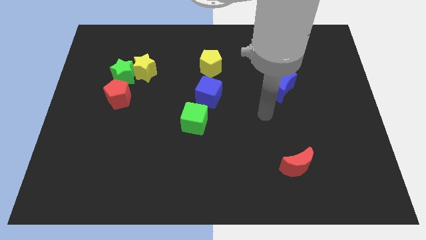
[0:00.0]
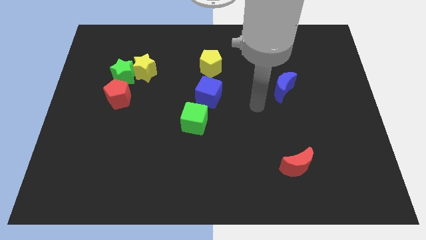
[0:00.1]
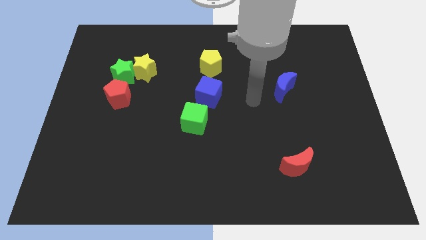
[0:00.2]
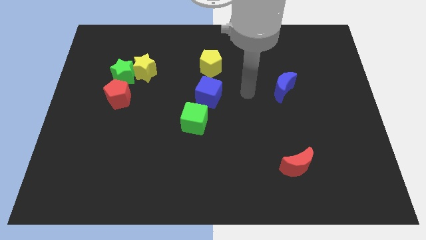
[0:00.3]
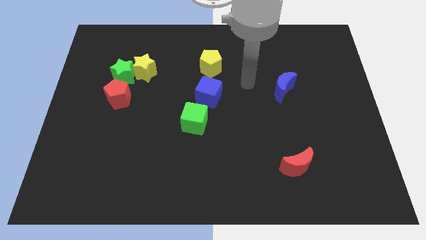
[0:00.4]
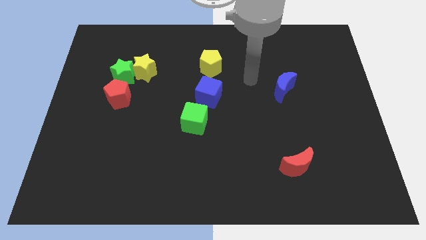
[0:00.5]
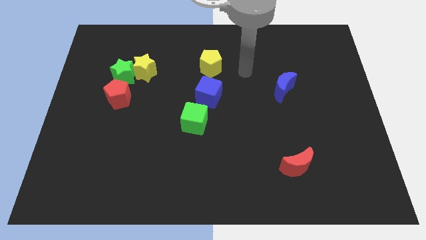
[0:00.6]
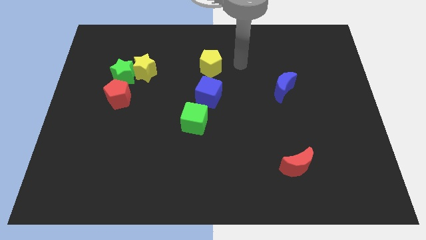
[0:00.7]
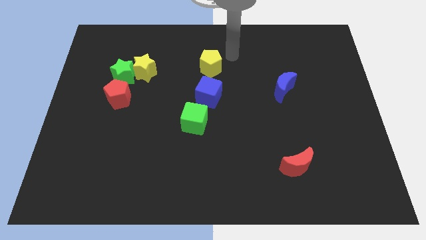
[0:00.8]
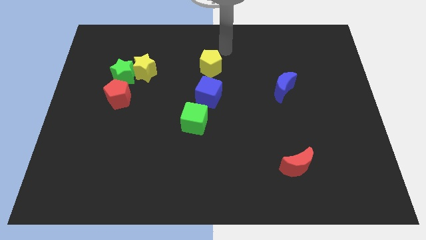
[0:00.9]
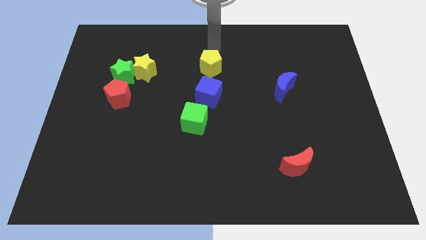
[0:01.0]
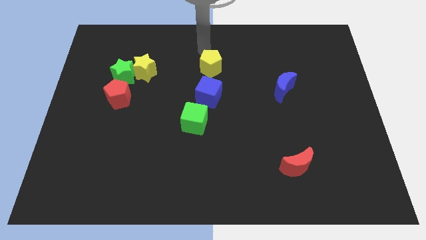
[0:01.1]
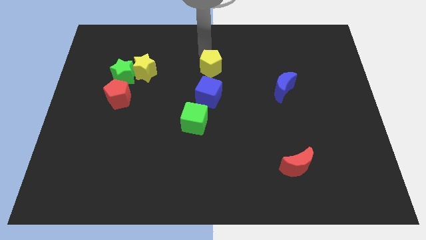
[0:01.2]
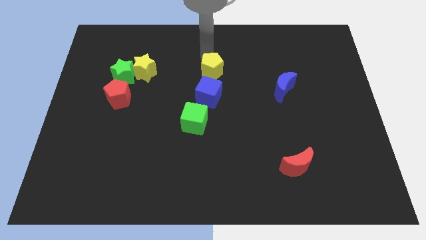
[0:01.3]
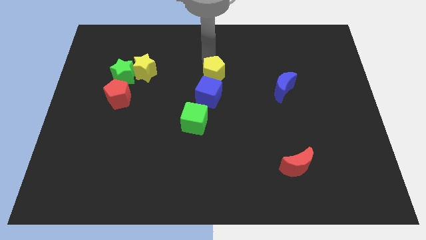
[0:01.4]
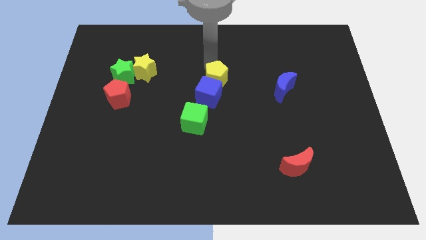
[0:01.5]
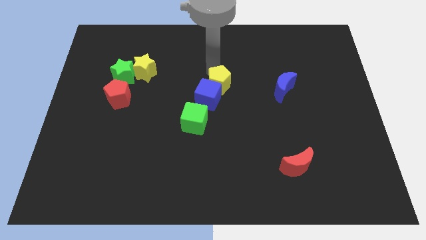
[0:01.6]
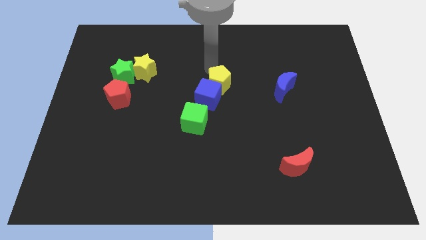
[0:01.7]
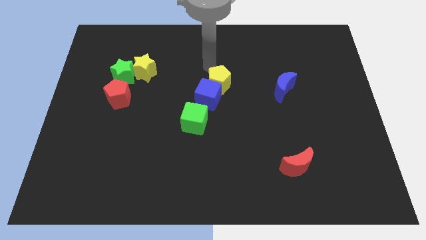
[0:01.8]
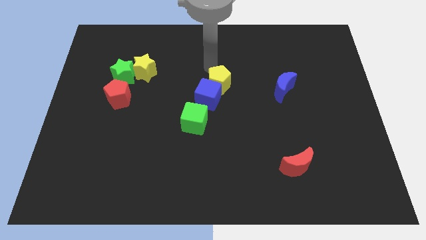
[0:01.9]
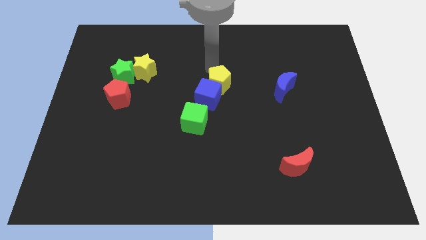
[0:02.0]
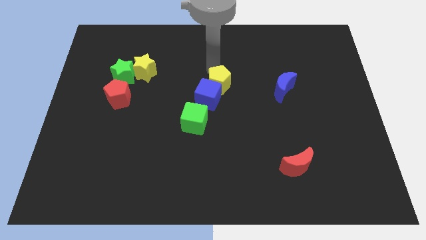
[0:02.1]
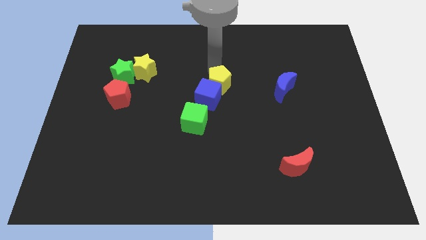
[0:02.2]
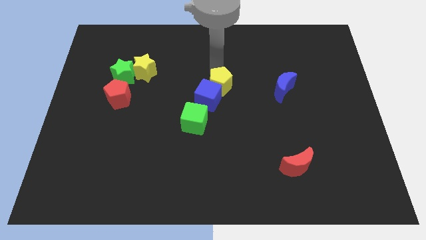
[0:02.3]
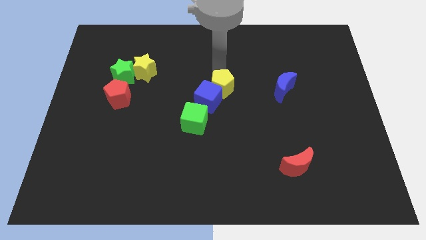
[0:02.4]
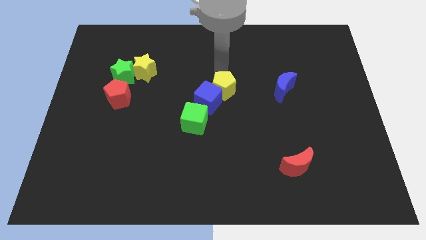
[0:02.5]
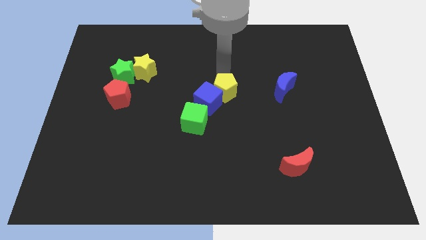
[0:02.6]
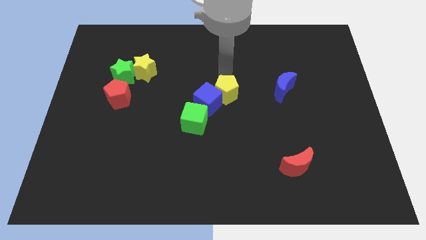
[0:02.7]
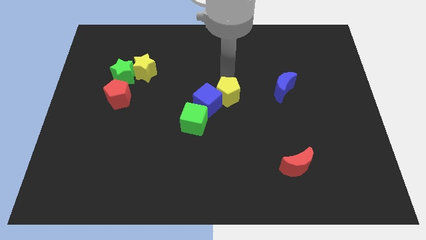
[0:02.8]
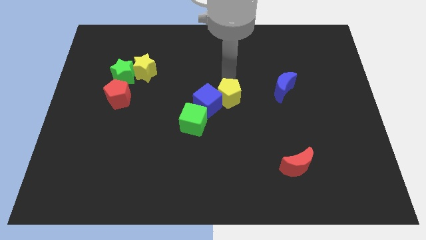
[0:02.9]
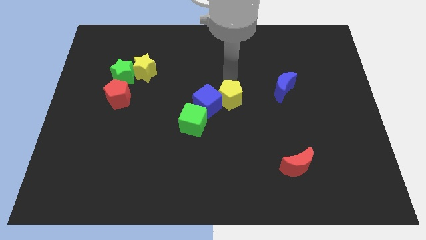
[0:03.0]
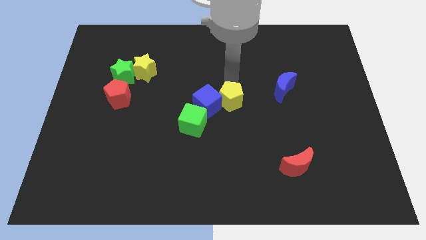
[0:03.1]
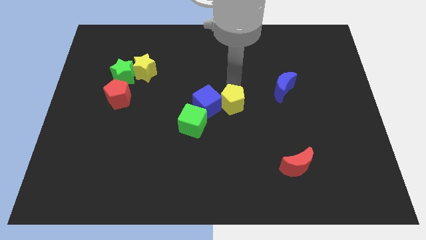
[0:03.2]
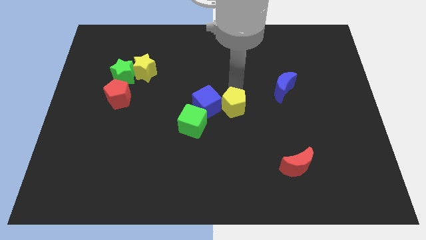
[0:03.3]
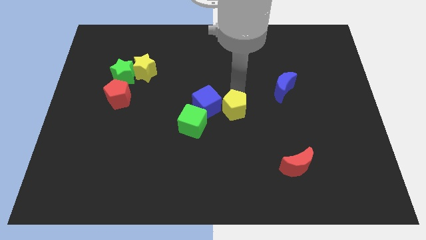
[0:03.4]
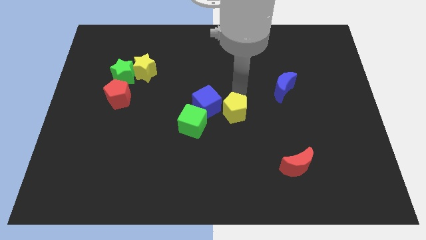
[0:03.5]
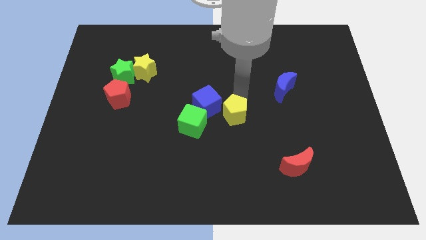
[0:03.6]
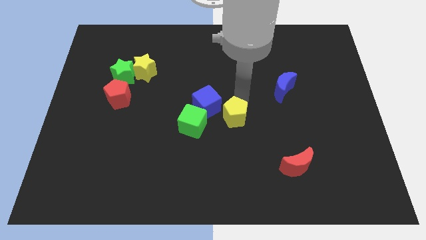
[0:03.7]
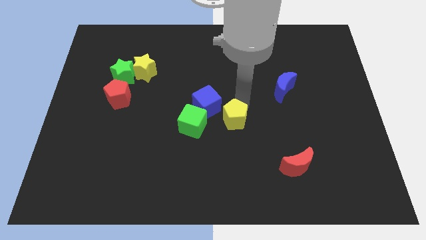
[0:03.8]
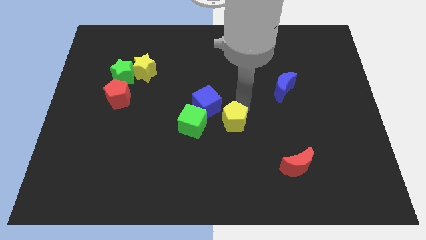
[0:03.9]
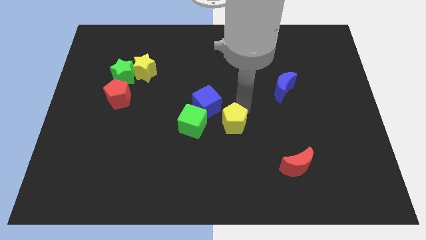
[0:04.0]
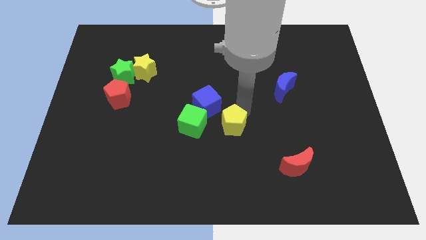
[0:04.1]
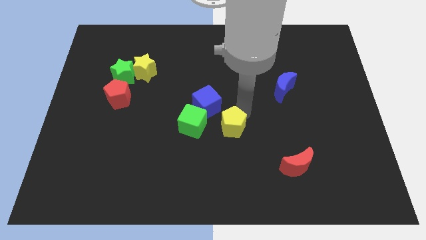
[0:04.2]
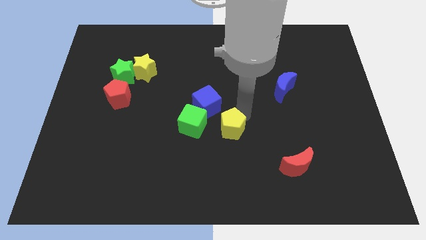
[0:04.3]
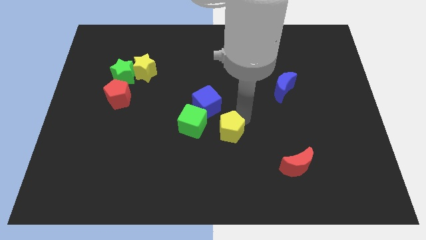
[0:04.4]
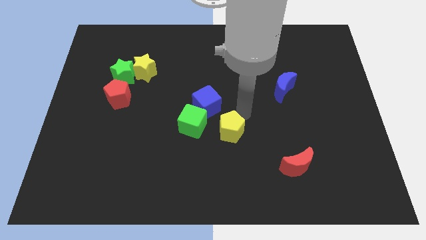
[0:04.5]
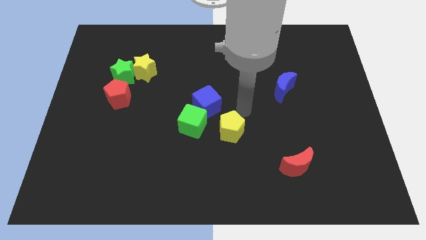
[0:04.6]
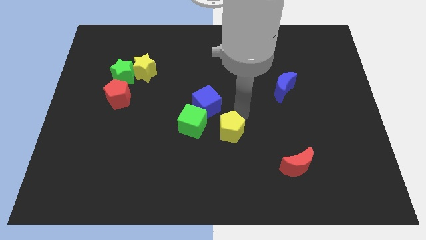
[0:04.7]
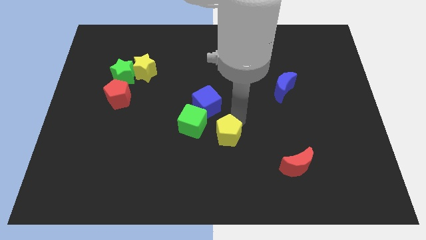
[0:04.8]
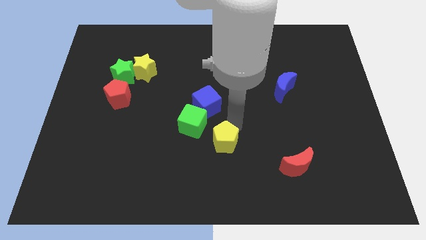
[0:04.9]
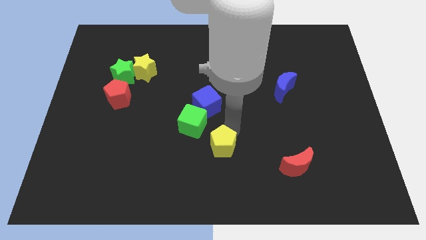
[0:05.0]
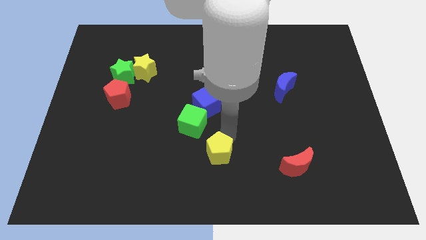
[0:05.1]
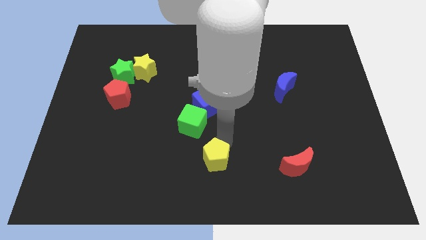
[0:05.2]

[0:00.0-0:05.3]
put the yellow pentagon to the bottom
